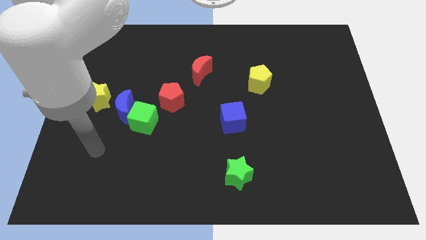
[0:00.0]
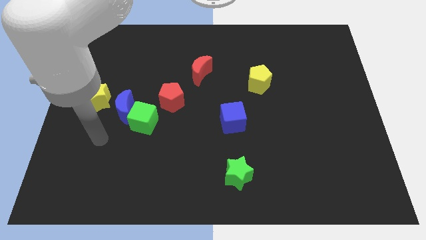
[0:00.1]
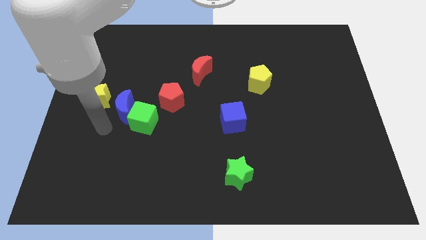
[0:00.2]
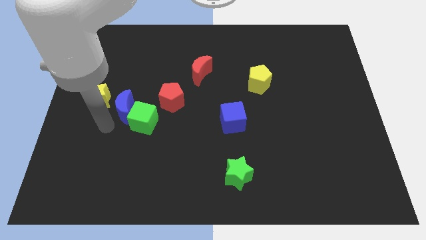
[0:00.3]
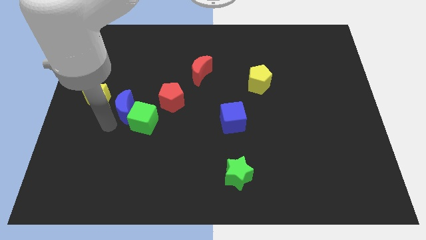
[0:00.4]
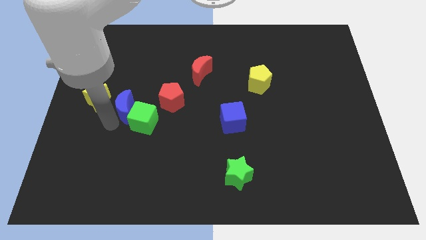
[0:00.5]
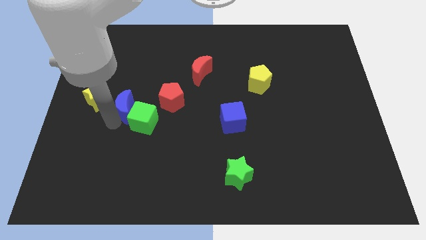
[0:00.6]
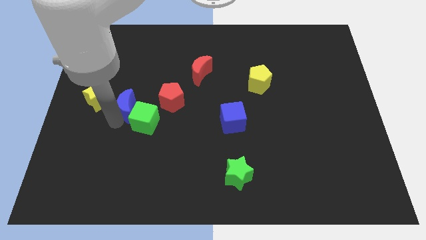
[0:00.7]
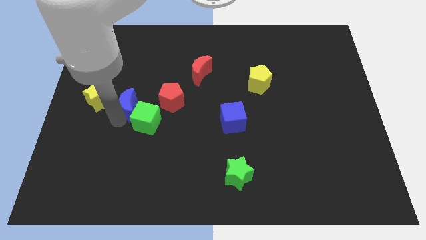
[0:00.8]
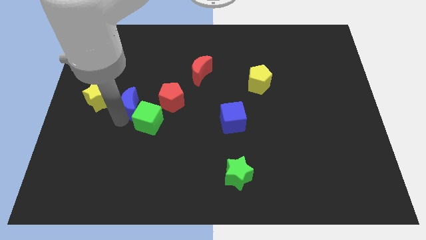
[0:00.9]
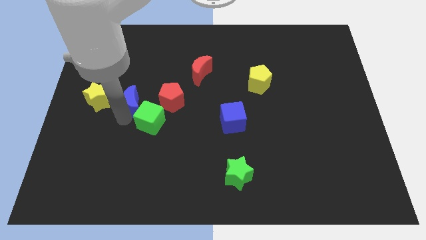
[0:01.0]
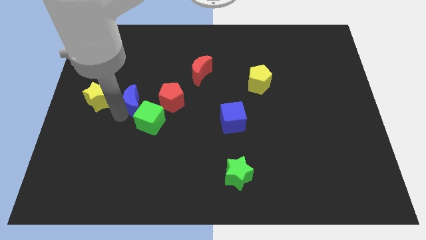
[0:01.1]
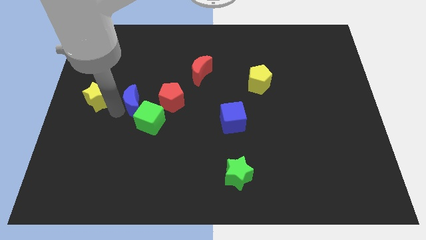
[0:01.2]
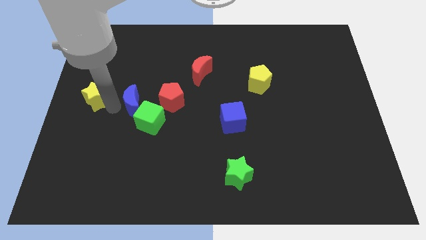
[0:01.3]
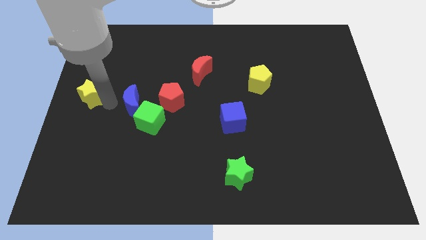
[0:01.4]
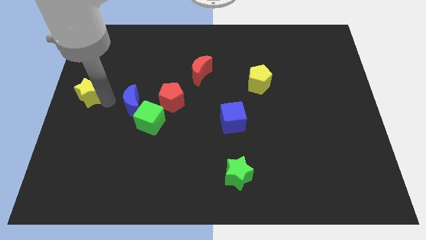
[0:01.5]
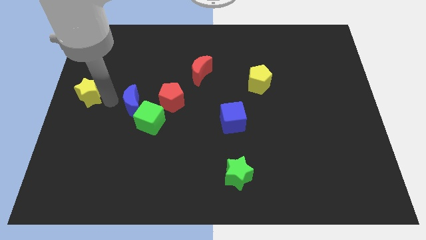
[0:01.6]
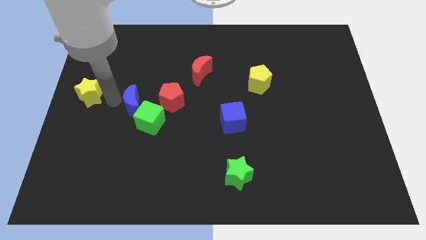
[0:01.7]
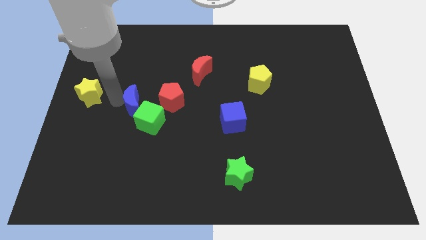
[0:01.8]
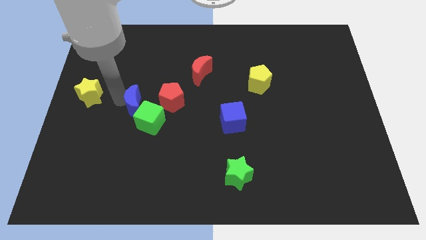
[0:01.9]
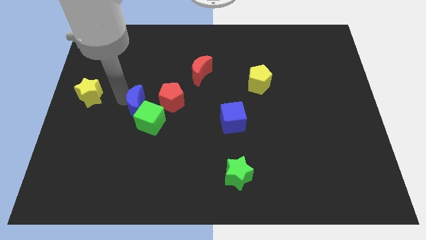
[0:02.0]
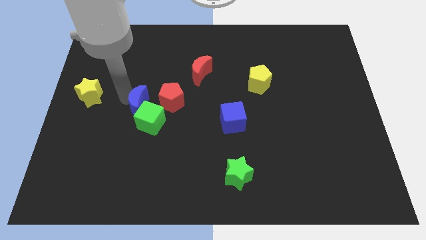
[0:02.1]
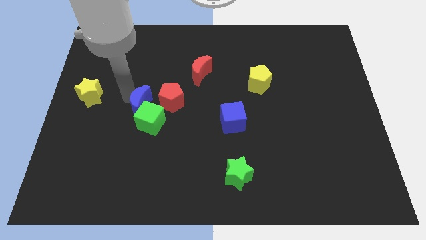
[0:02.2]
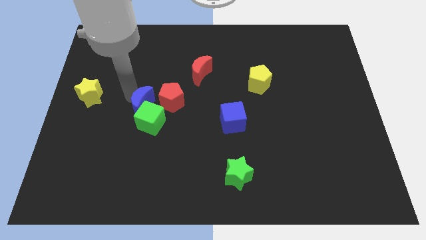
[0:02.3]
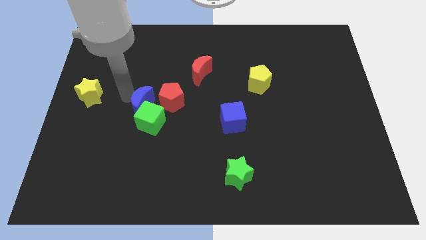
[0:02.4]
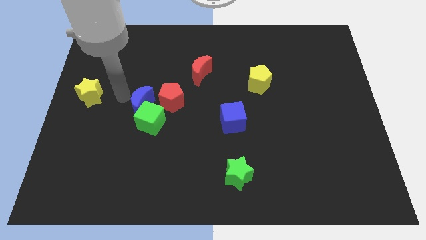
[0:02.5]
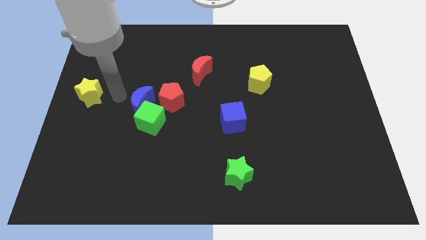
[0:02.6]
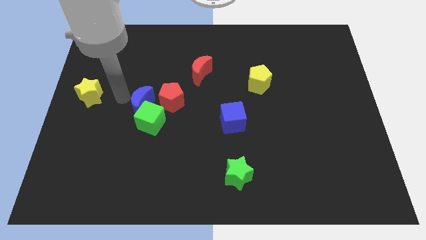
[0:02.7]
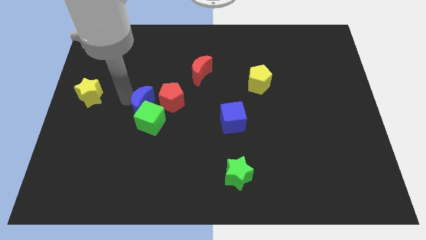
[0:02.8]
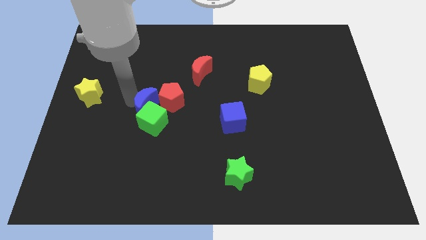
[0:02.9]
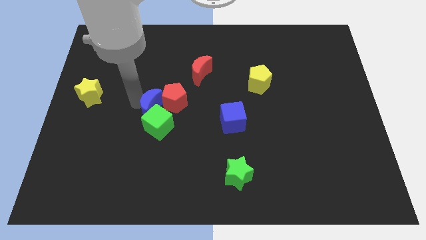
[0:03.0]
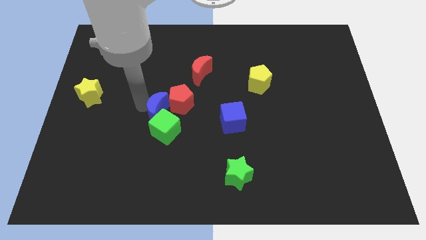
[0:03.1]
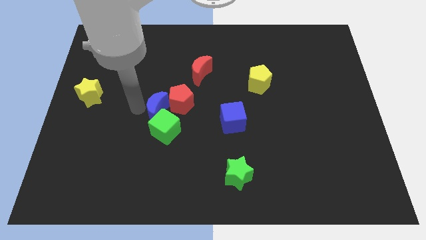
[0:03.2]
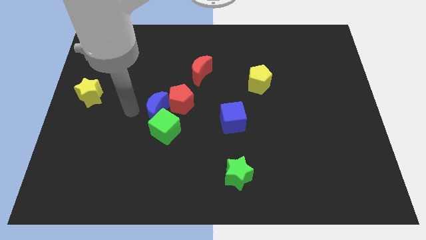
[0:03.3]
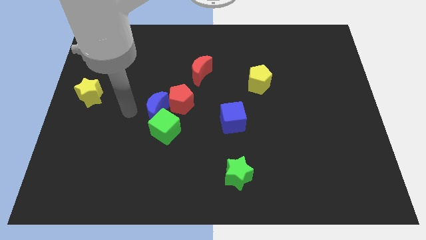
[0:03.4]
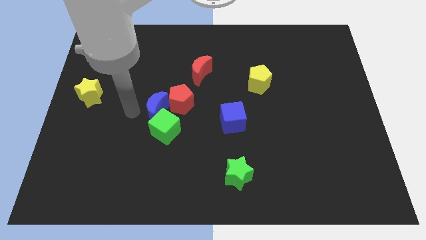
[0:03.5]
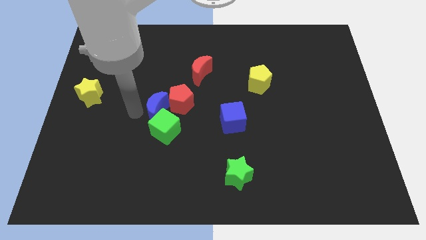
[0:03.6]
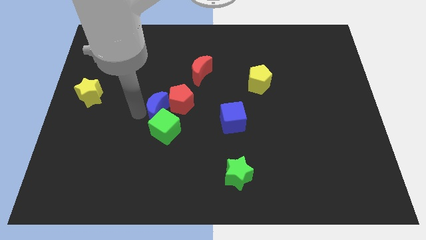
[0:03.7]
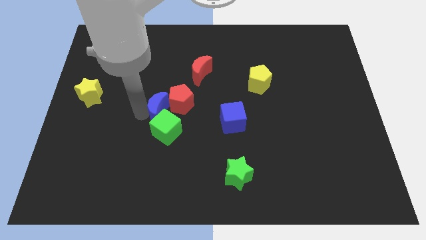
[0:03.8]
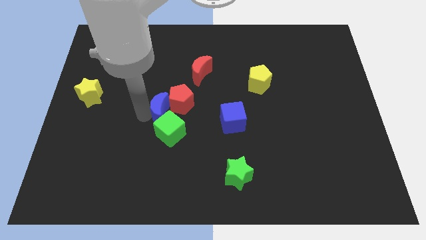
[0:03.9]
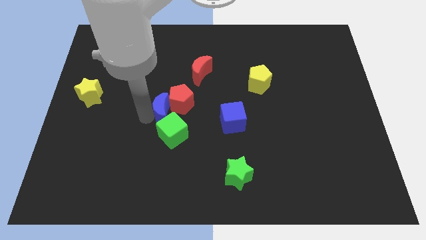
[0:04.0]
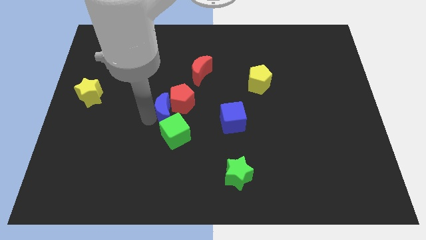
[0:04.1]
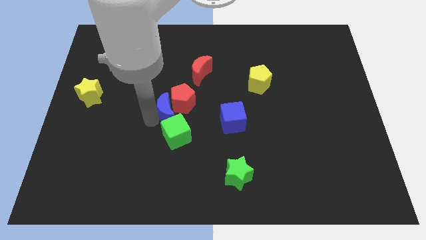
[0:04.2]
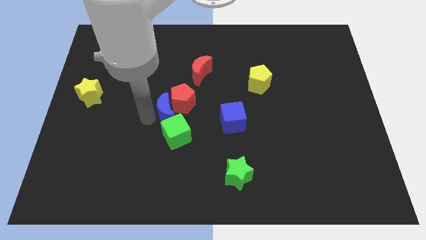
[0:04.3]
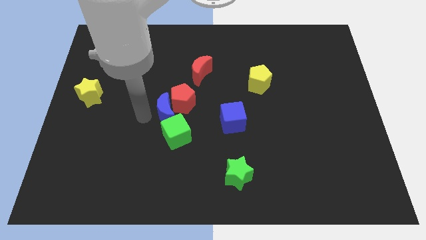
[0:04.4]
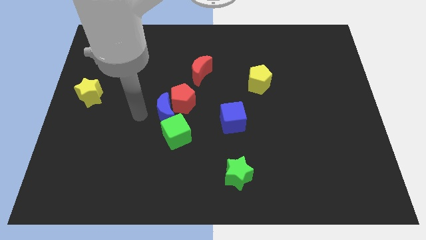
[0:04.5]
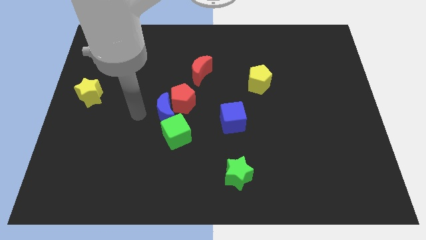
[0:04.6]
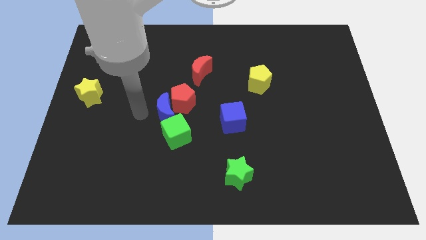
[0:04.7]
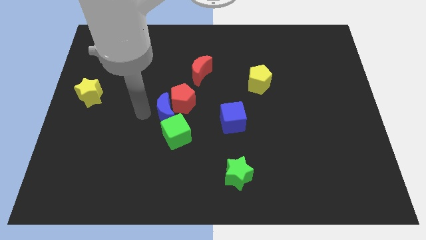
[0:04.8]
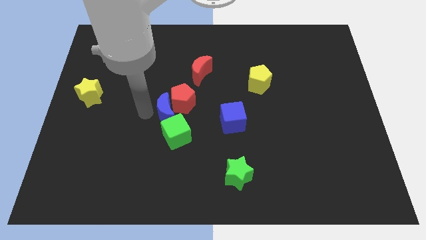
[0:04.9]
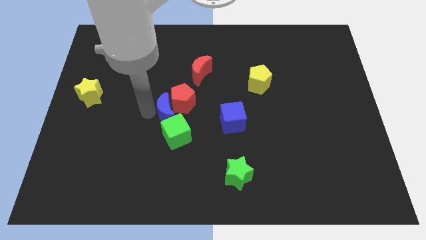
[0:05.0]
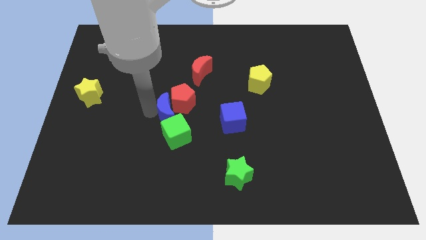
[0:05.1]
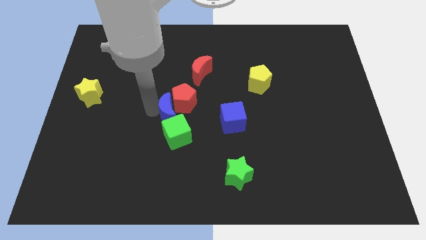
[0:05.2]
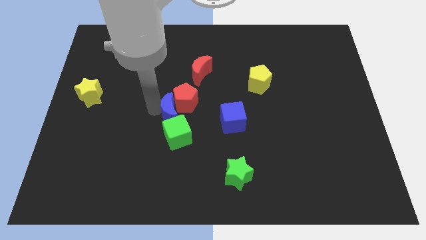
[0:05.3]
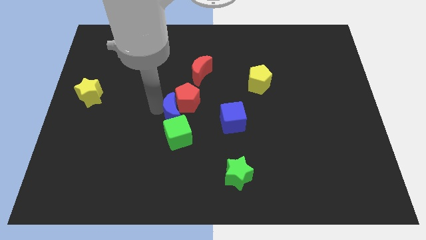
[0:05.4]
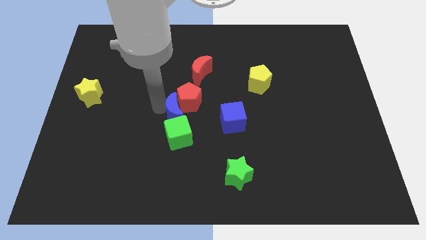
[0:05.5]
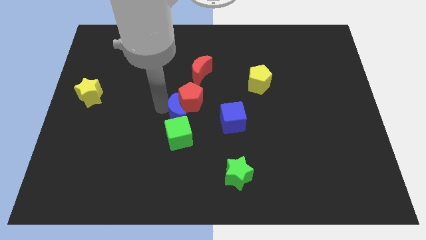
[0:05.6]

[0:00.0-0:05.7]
move the blue moon away from the green cube and yellow star

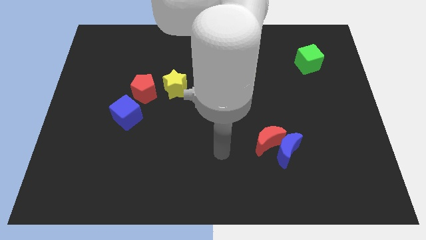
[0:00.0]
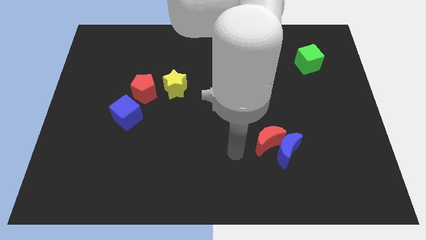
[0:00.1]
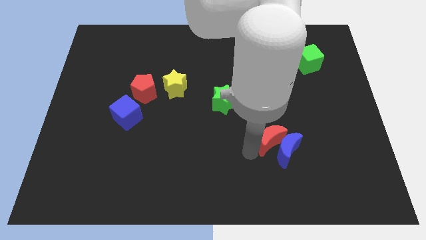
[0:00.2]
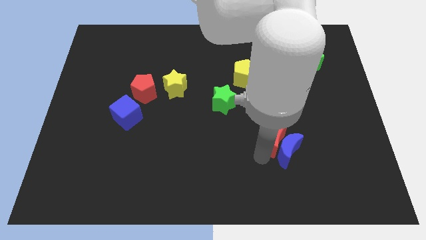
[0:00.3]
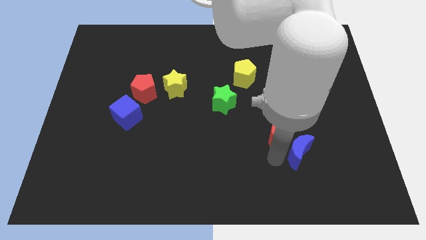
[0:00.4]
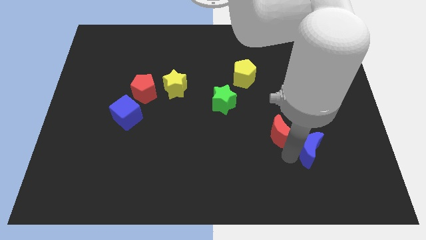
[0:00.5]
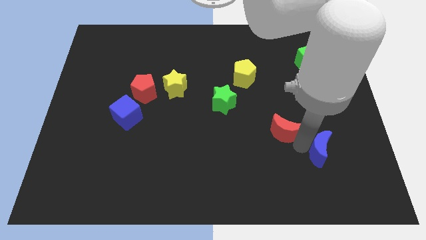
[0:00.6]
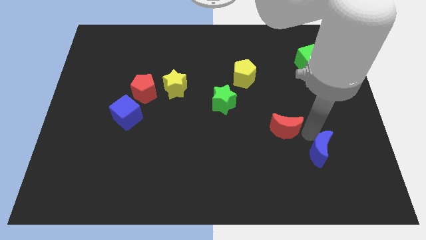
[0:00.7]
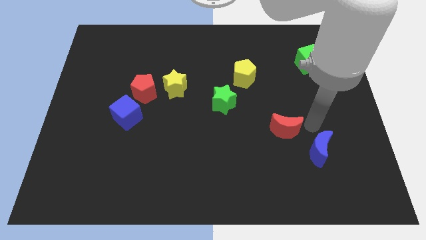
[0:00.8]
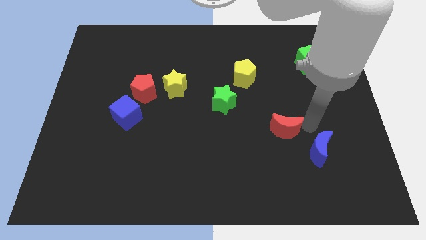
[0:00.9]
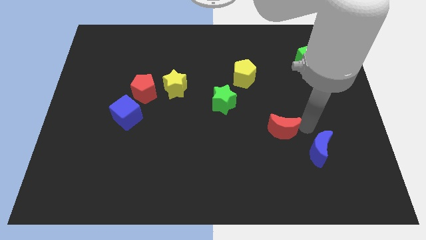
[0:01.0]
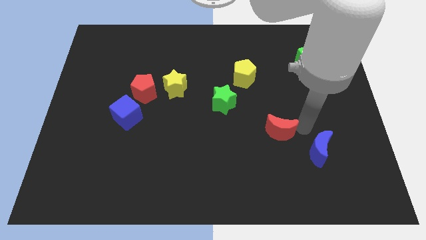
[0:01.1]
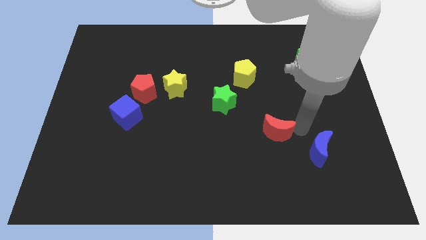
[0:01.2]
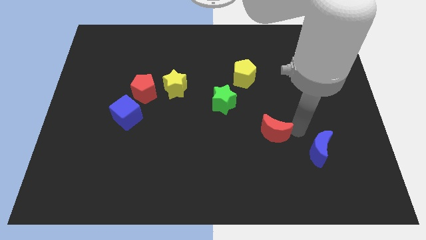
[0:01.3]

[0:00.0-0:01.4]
move the red moon away from the blue moon

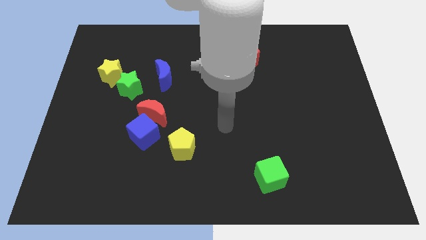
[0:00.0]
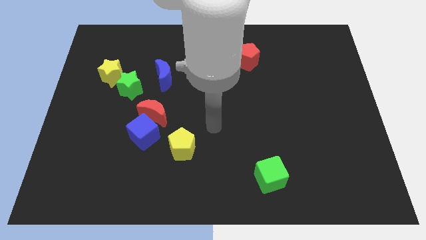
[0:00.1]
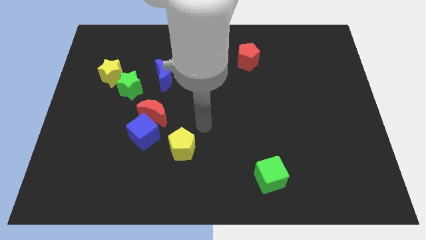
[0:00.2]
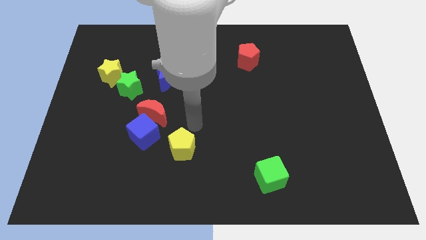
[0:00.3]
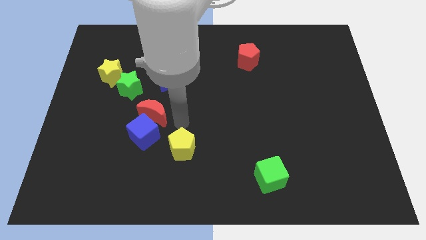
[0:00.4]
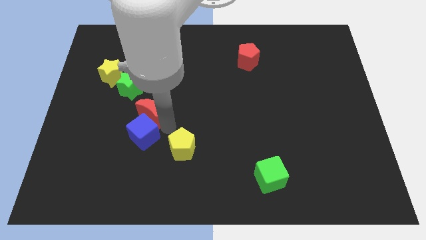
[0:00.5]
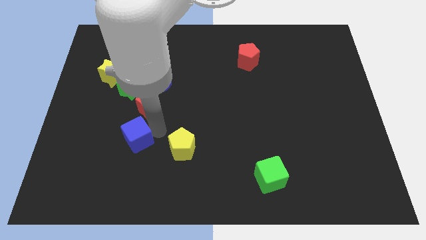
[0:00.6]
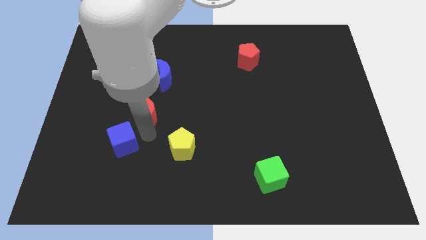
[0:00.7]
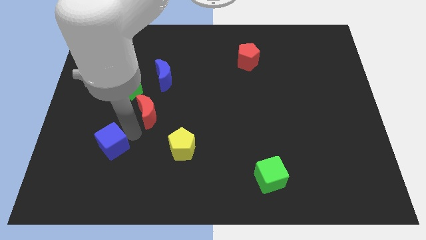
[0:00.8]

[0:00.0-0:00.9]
pull the red moon apart from the blue cube

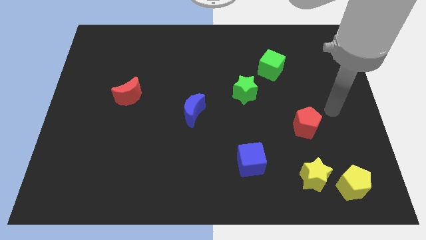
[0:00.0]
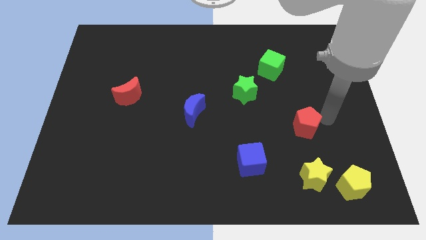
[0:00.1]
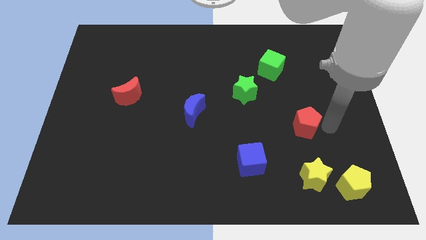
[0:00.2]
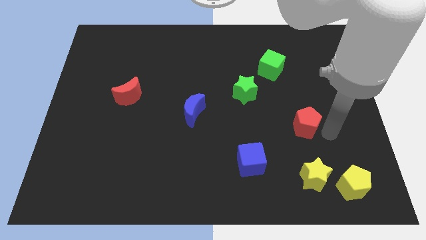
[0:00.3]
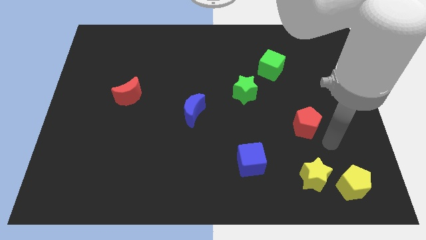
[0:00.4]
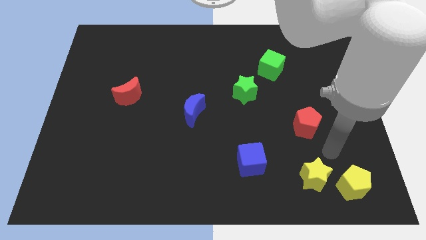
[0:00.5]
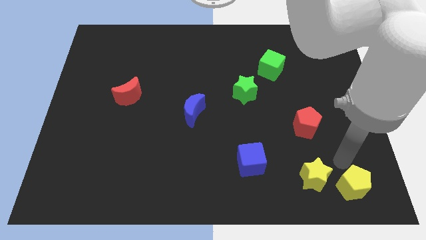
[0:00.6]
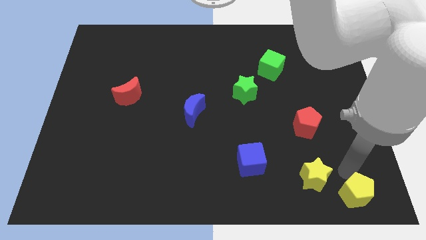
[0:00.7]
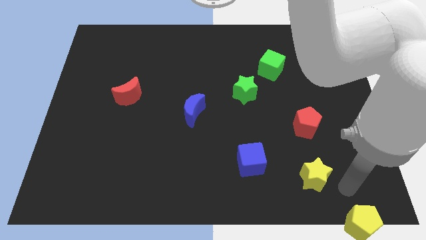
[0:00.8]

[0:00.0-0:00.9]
pull the yellow star apart from the yellow pentagon

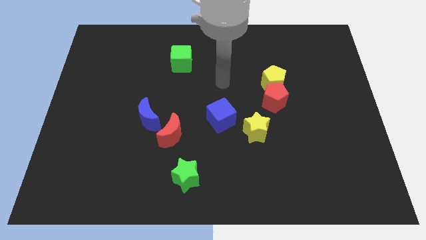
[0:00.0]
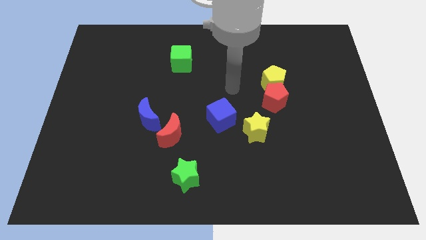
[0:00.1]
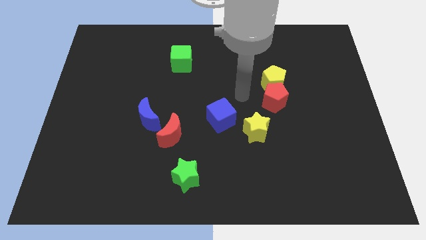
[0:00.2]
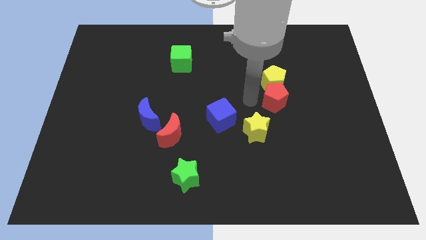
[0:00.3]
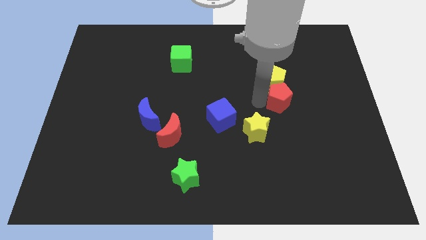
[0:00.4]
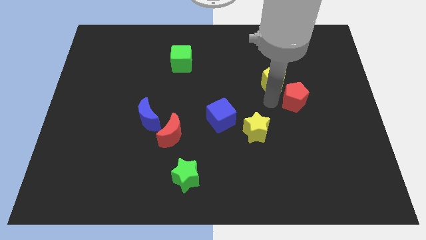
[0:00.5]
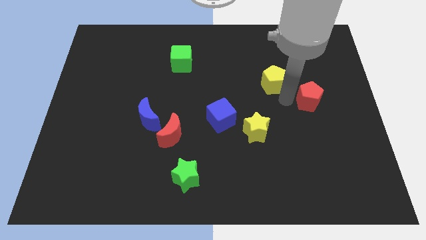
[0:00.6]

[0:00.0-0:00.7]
separate the yellow pentagon from the red pentagon
